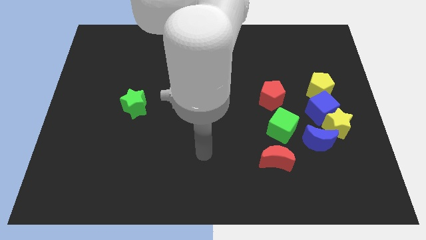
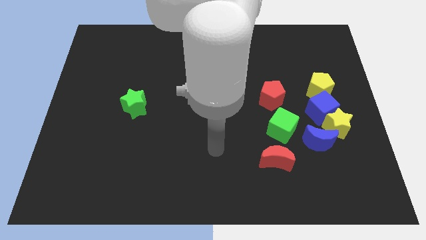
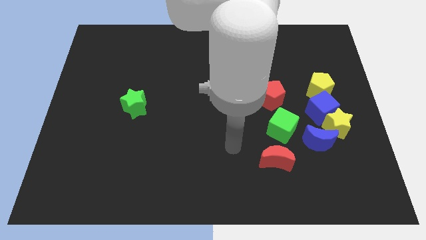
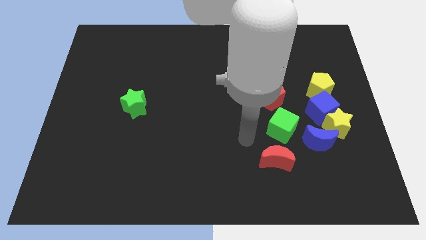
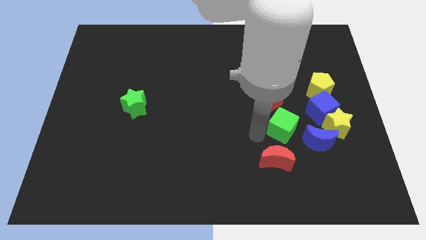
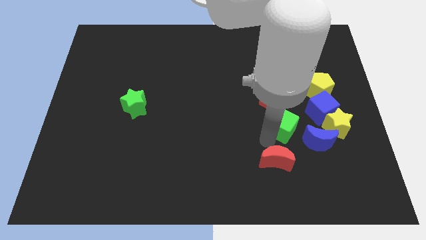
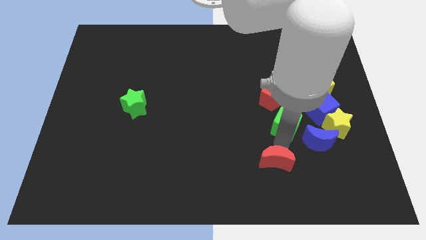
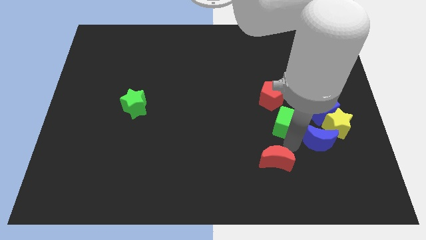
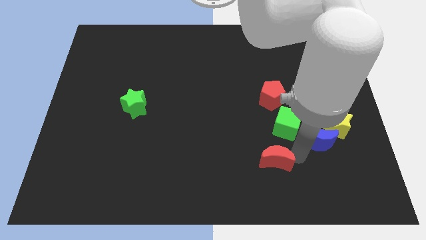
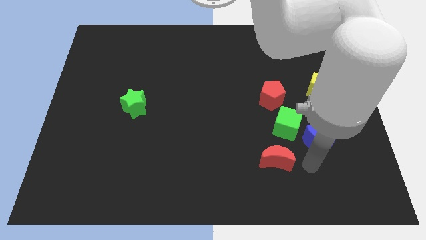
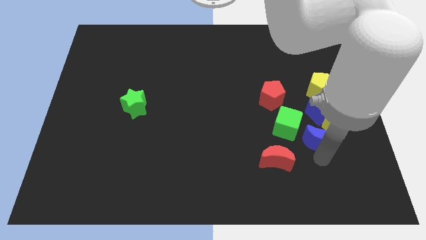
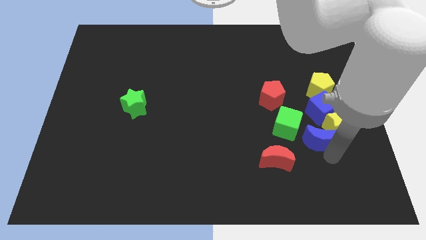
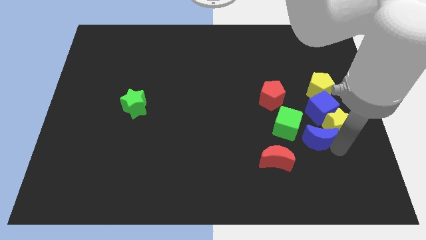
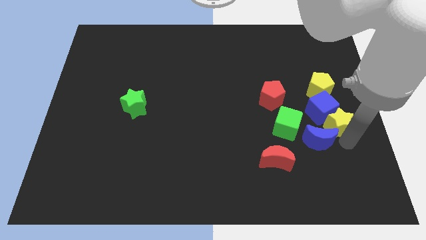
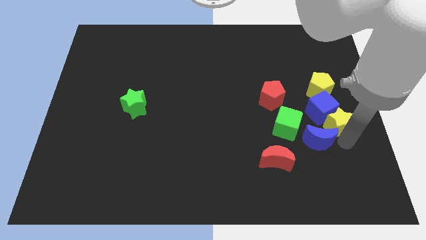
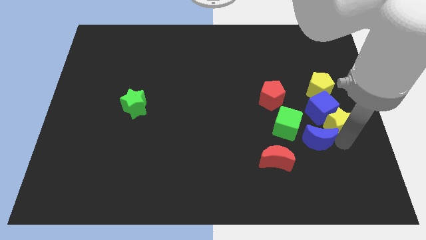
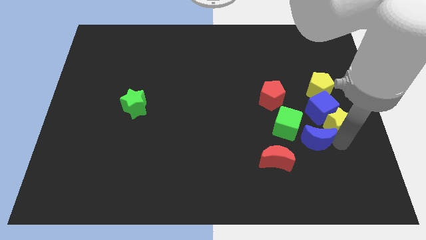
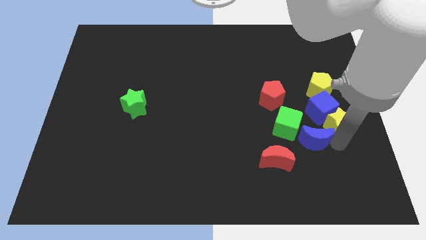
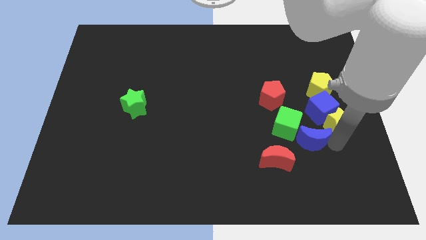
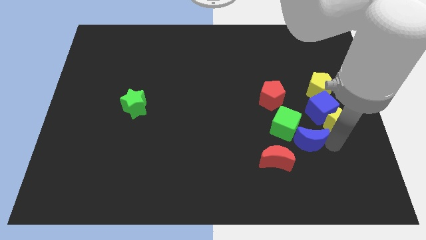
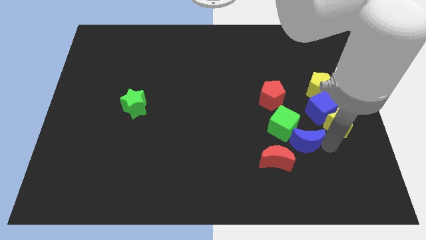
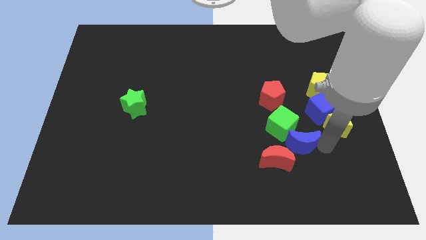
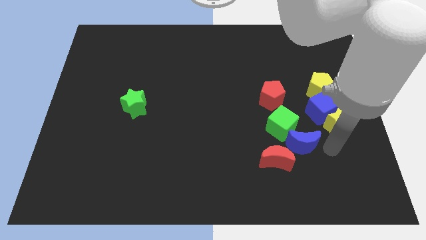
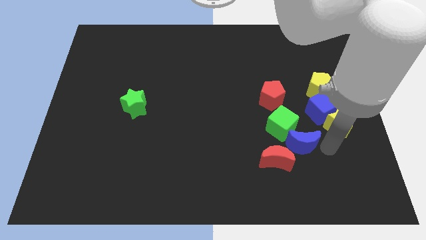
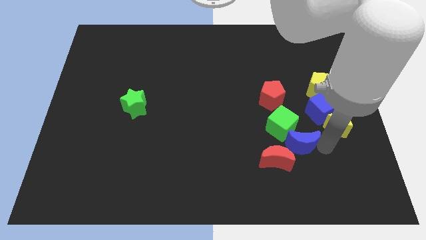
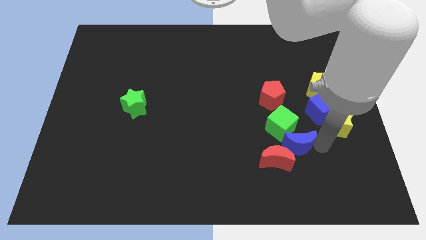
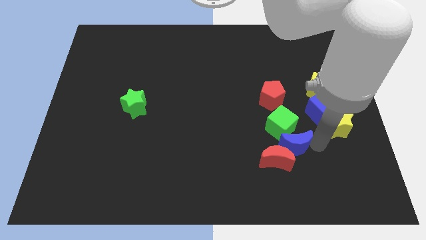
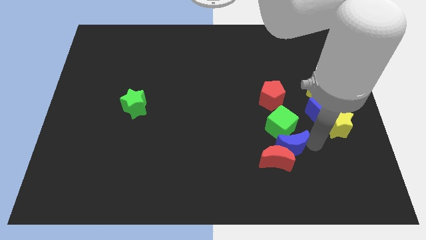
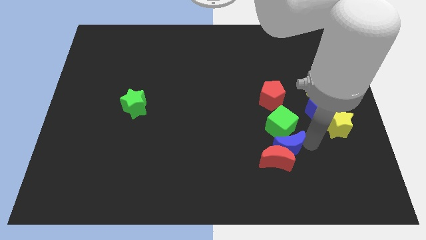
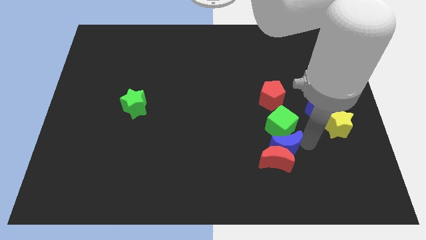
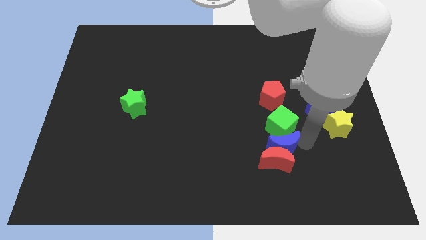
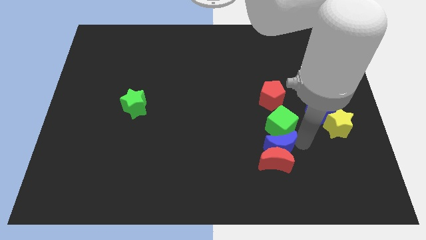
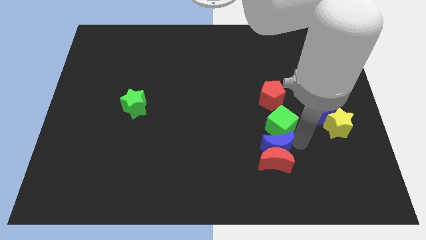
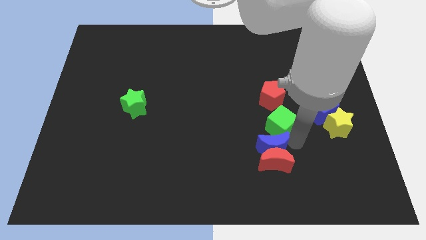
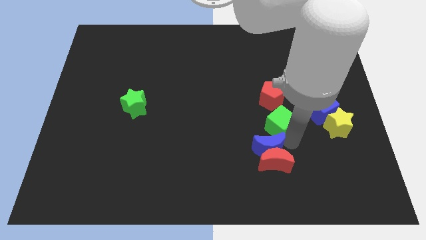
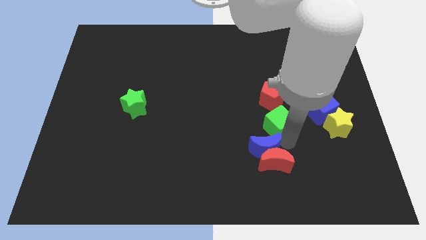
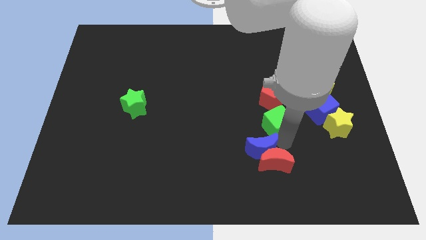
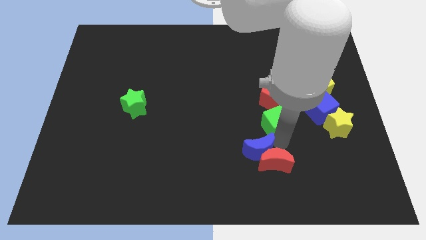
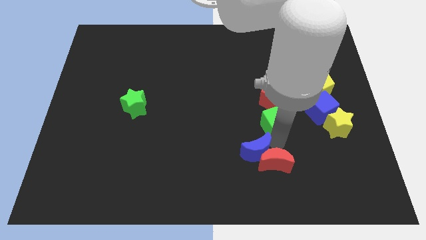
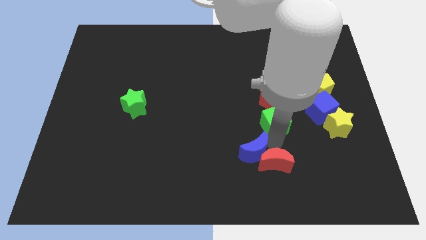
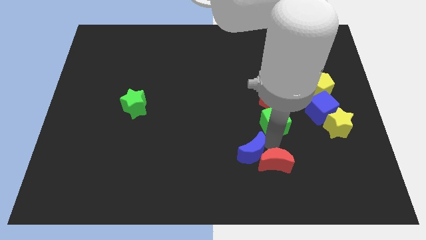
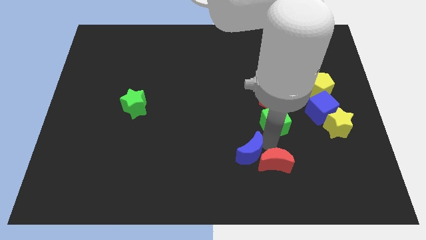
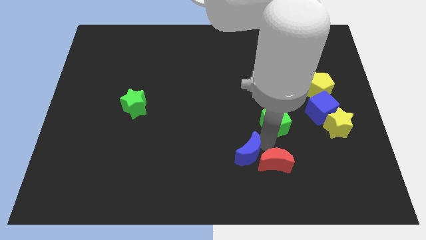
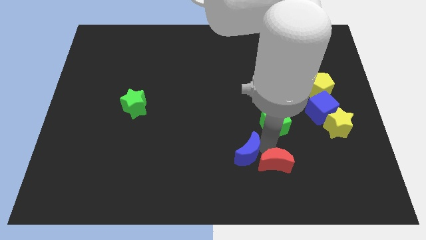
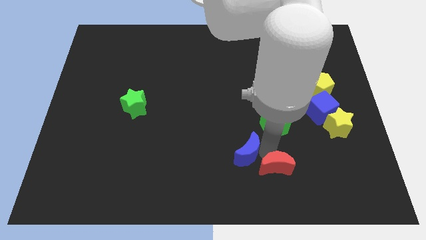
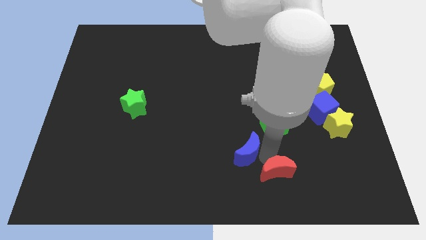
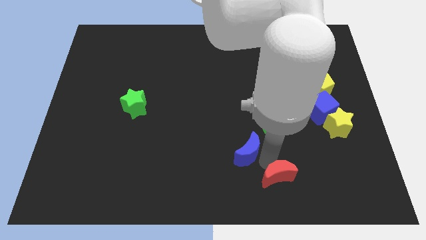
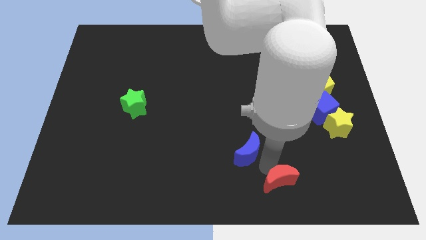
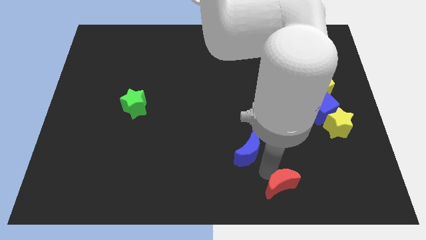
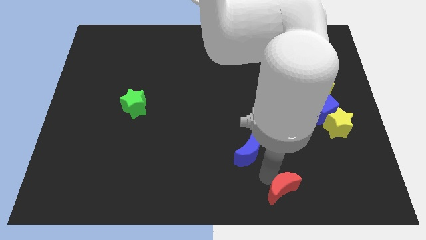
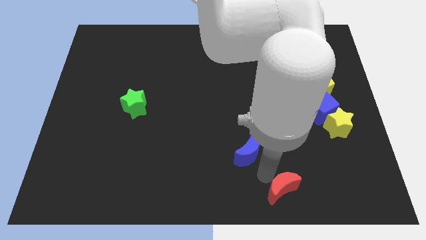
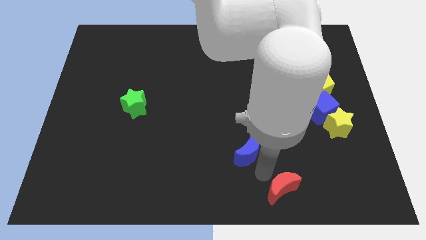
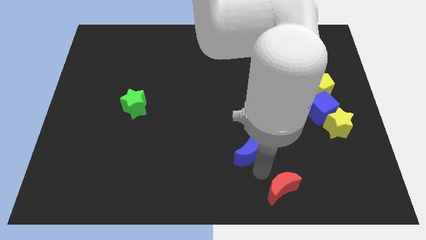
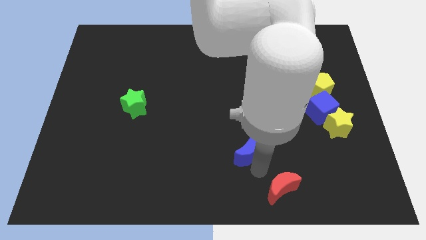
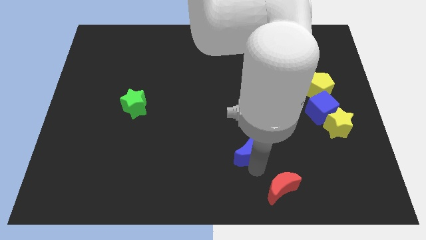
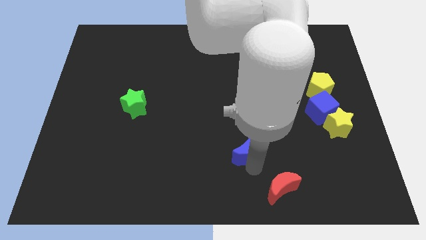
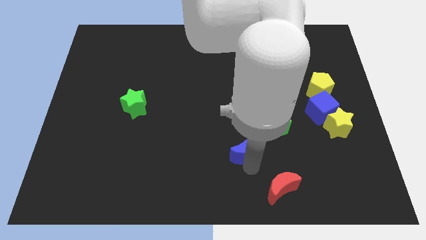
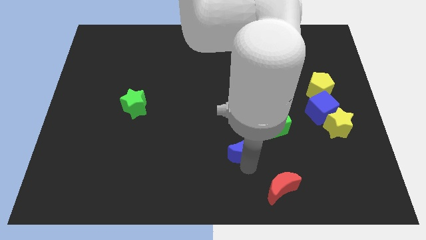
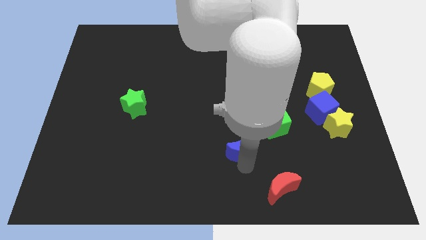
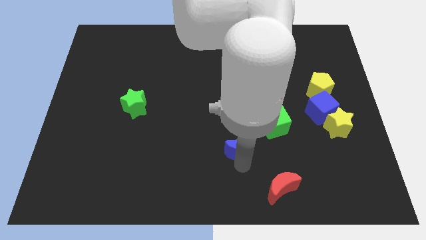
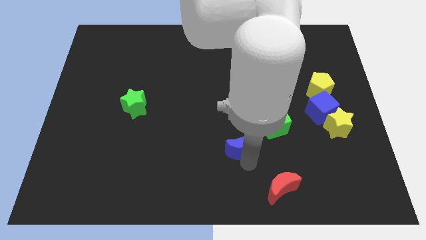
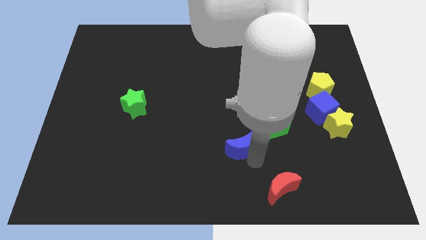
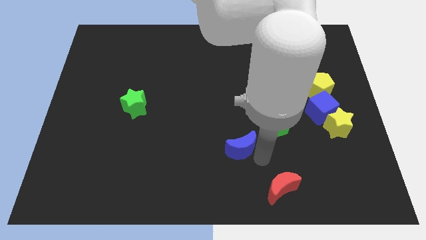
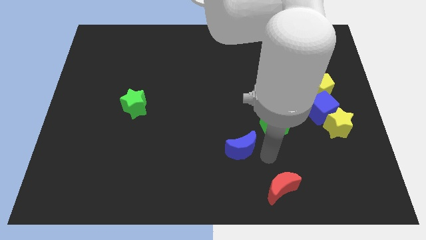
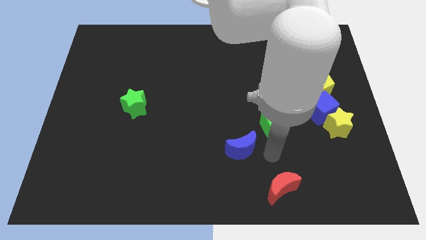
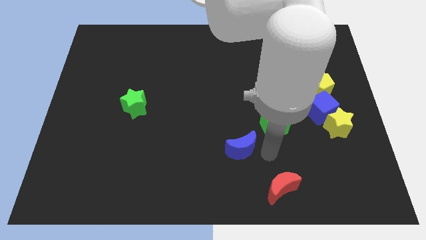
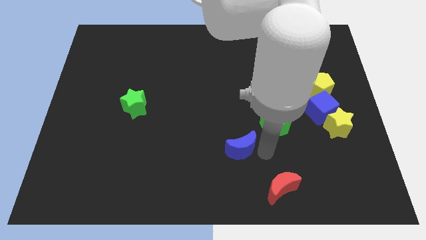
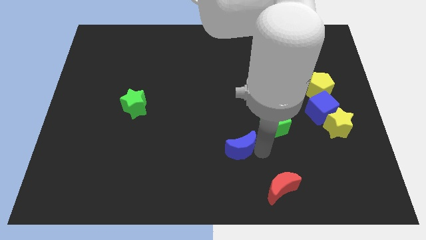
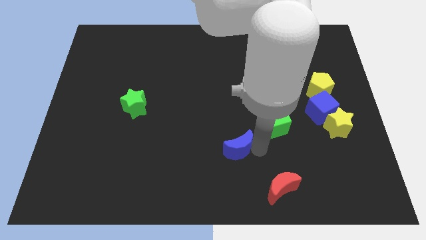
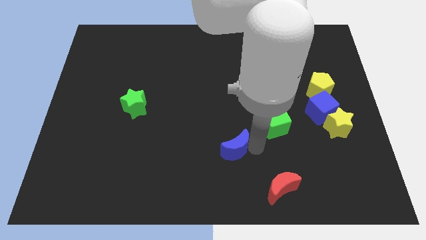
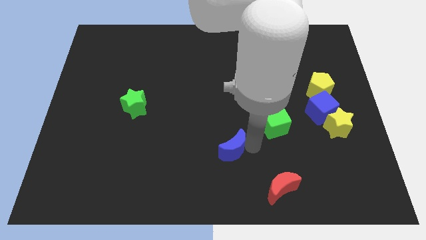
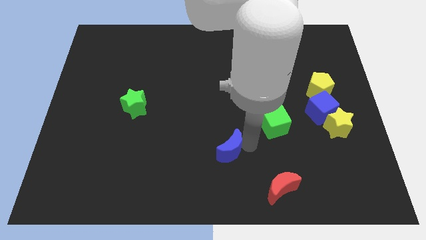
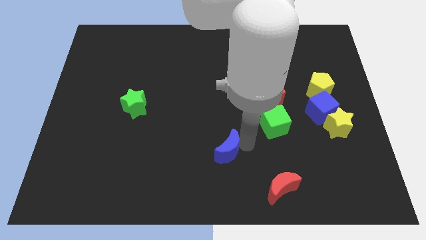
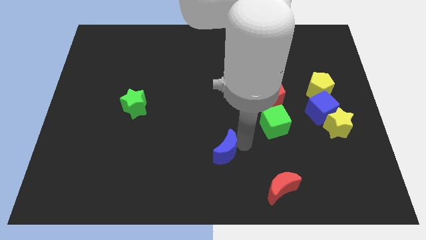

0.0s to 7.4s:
push the blue moon left

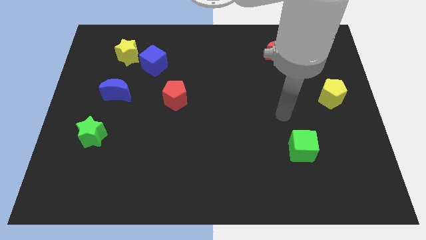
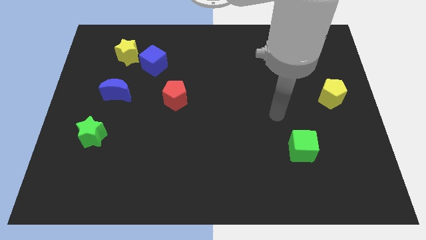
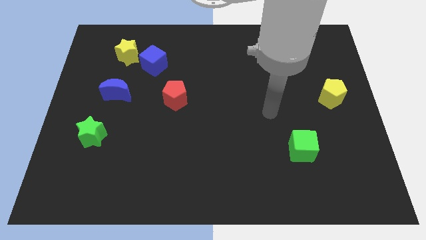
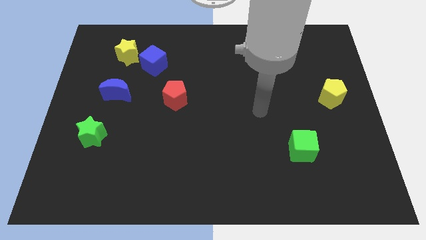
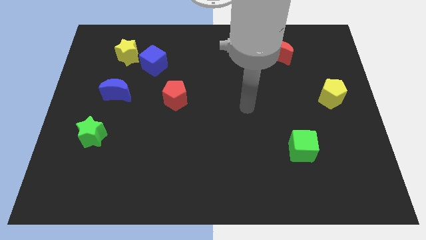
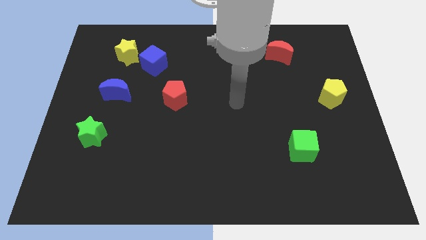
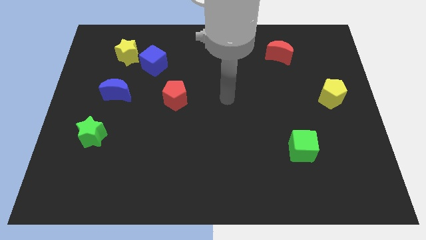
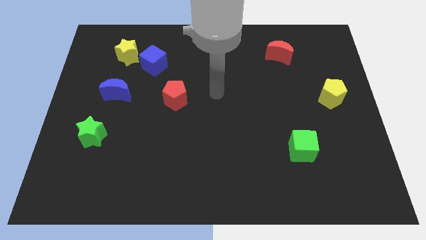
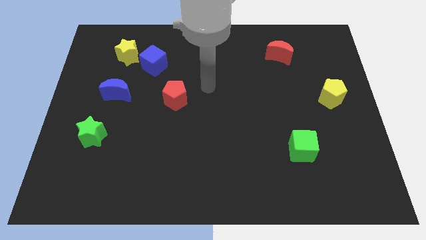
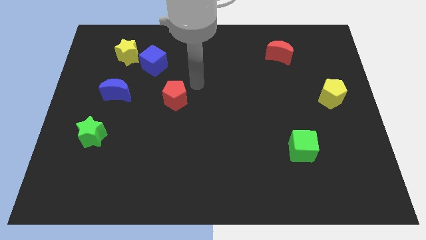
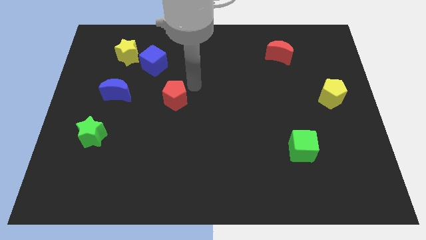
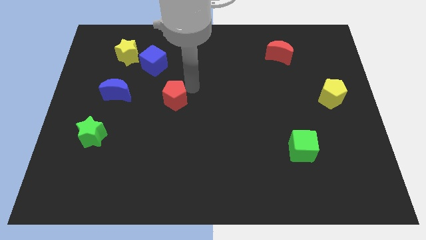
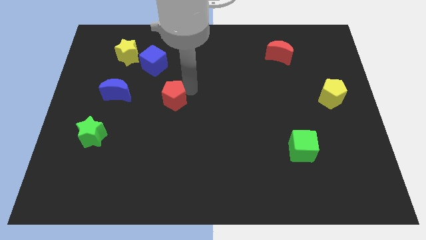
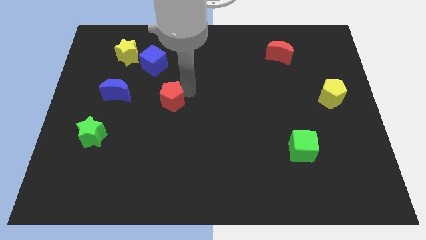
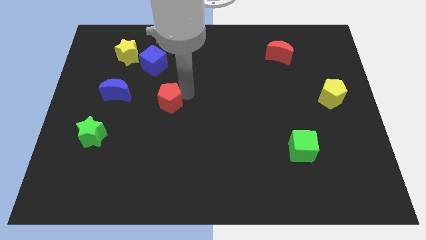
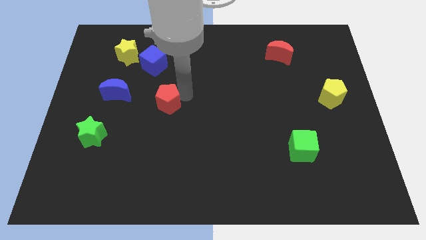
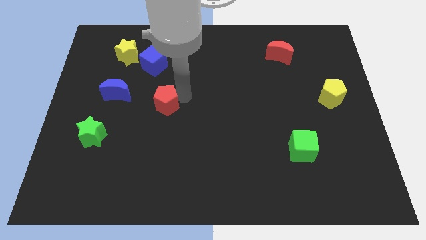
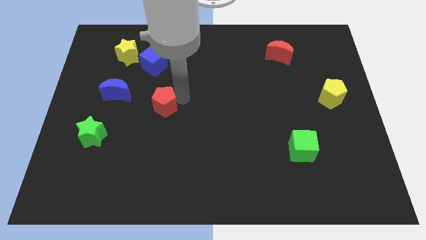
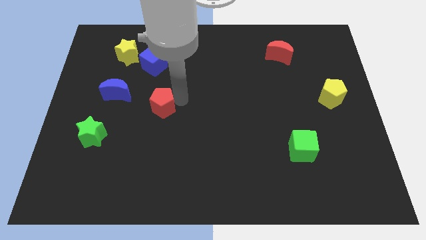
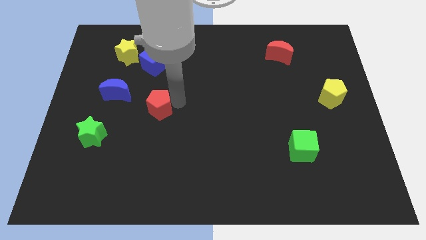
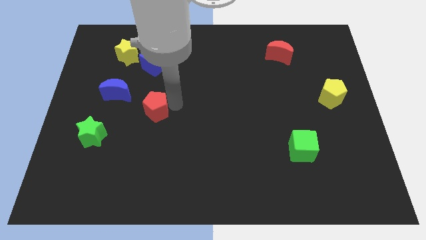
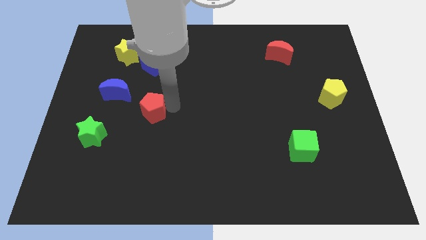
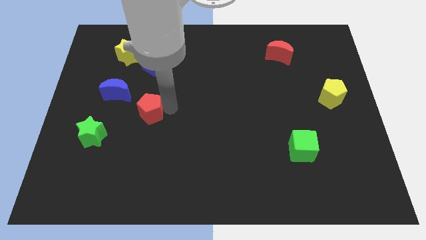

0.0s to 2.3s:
push the red pentagon somewhat downwards and then left
